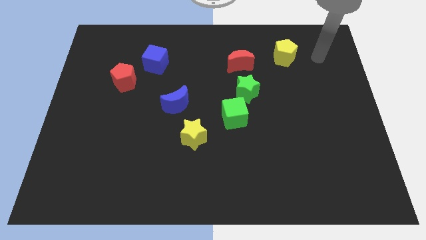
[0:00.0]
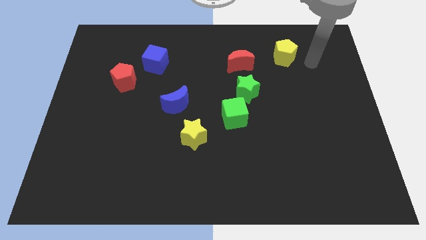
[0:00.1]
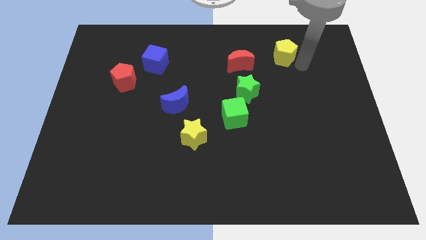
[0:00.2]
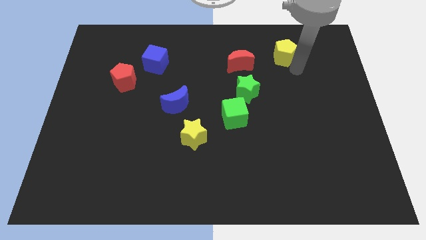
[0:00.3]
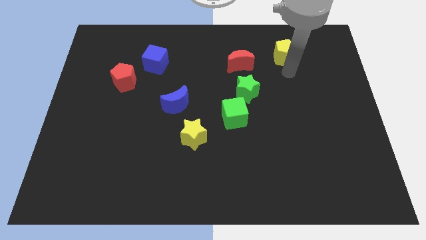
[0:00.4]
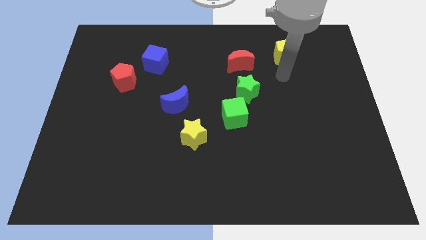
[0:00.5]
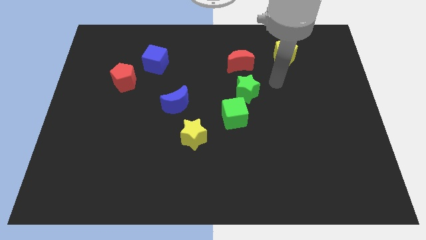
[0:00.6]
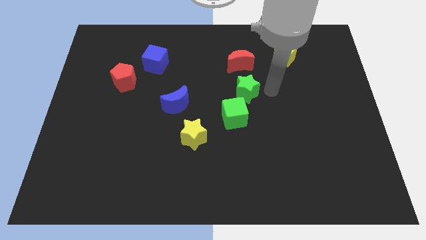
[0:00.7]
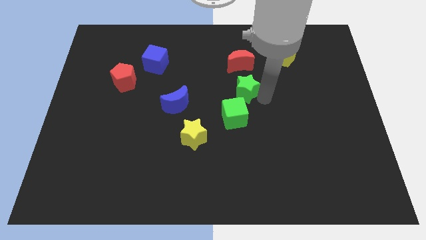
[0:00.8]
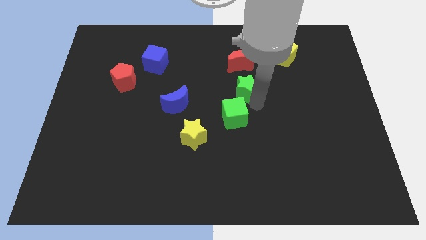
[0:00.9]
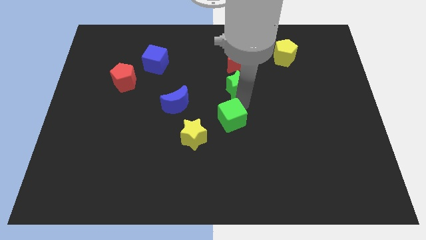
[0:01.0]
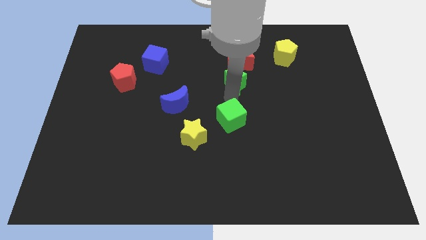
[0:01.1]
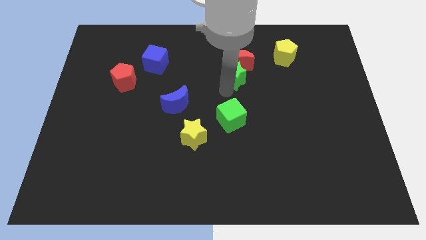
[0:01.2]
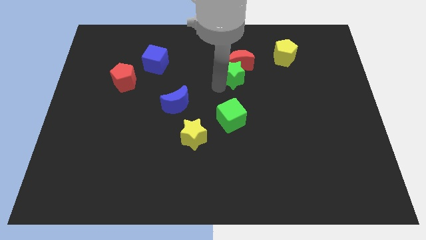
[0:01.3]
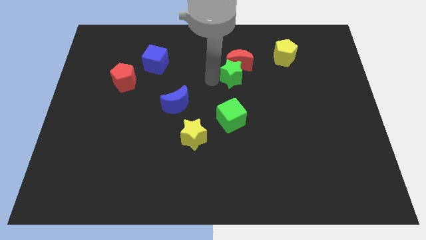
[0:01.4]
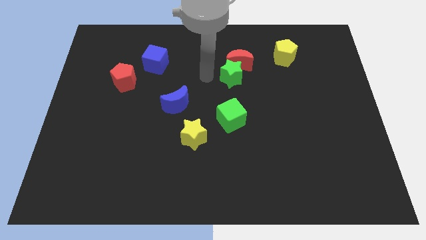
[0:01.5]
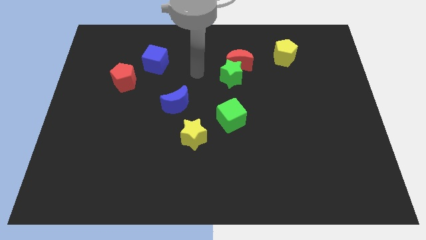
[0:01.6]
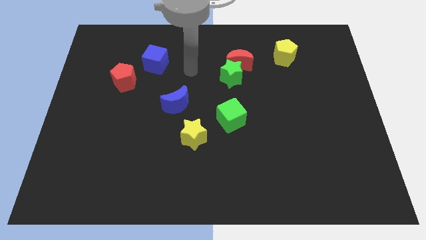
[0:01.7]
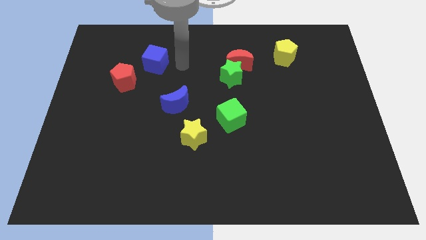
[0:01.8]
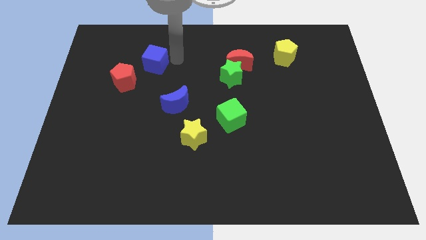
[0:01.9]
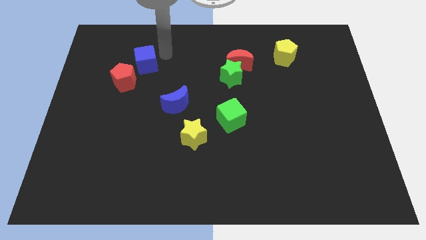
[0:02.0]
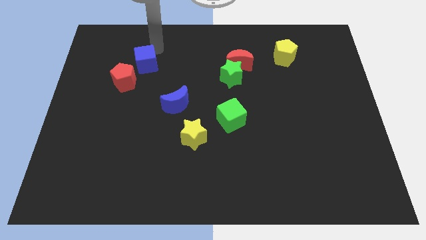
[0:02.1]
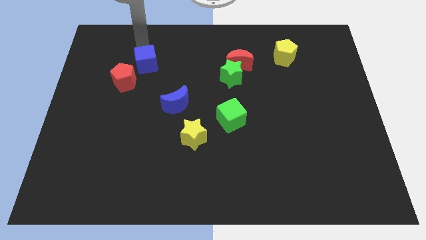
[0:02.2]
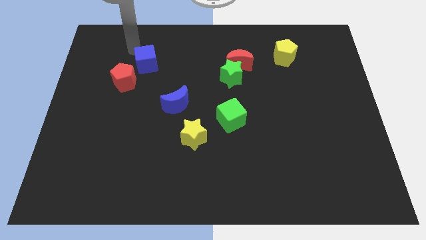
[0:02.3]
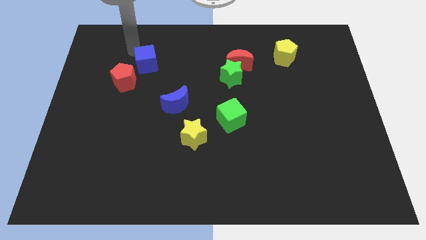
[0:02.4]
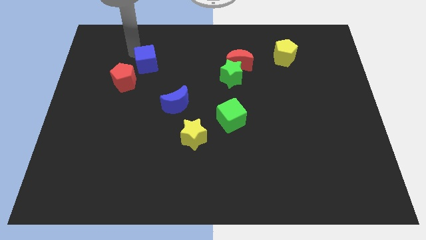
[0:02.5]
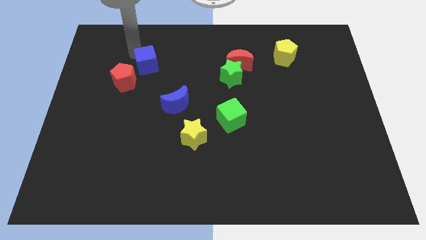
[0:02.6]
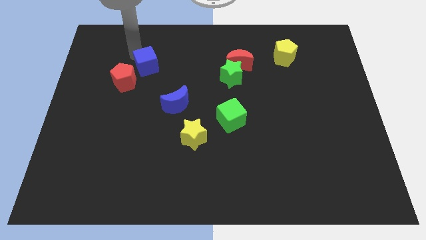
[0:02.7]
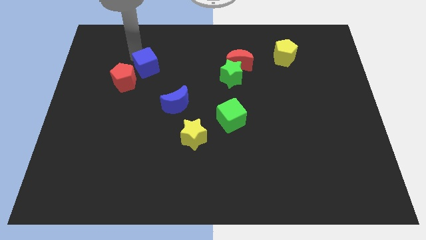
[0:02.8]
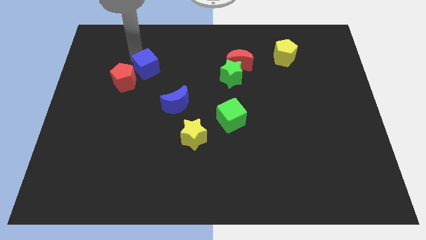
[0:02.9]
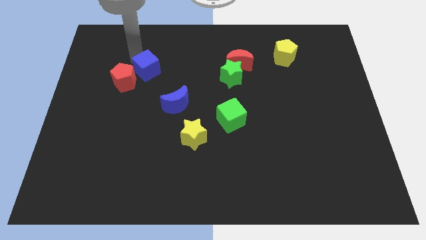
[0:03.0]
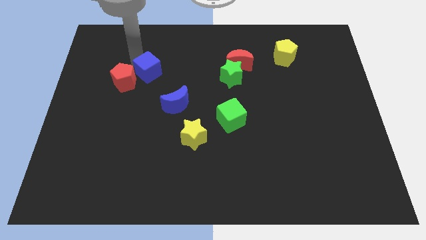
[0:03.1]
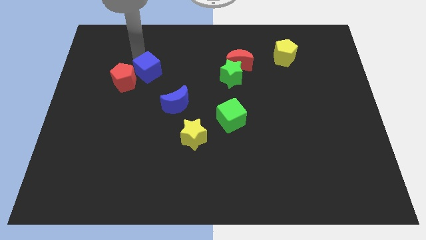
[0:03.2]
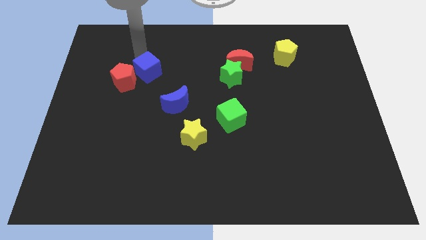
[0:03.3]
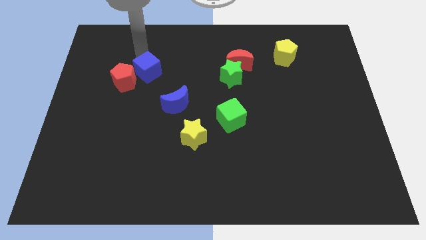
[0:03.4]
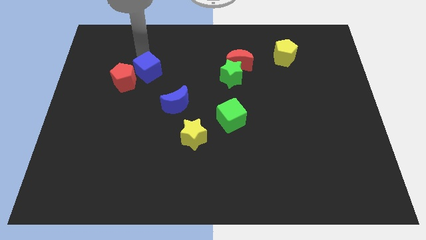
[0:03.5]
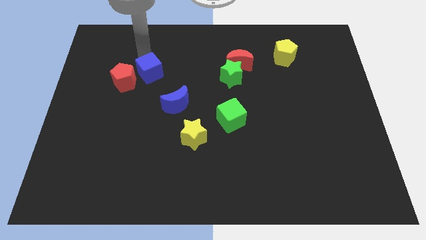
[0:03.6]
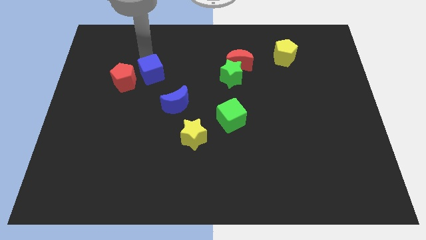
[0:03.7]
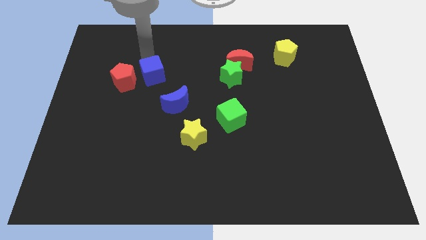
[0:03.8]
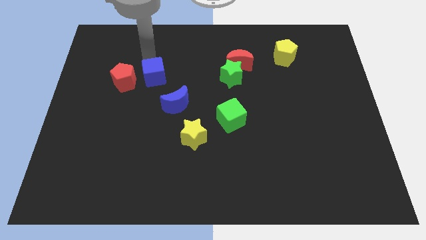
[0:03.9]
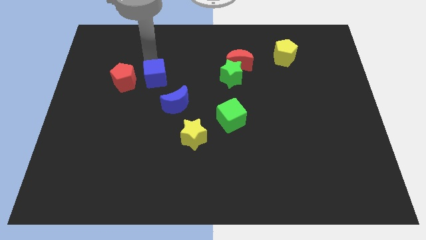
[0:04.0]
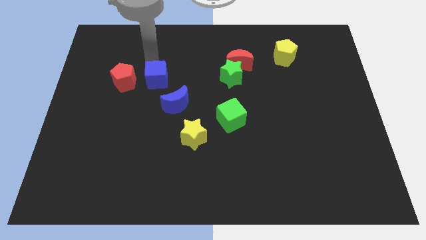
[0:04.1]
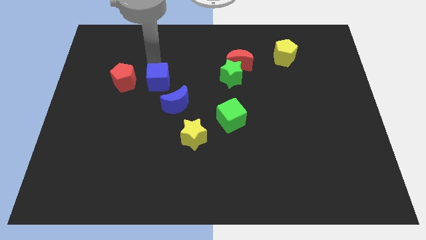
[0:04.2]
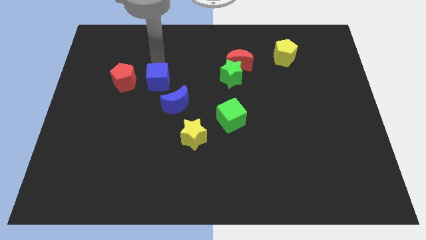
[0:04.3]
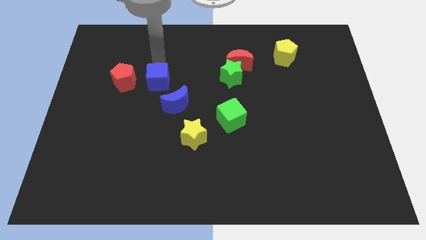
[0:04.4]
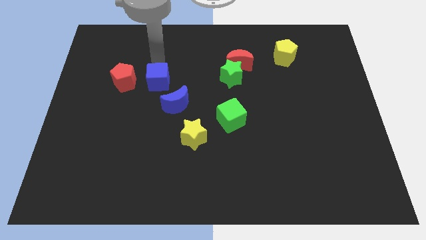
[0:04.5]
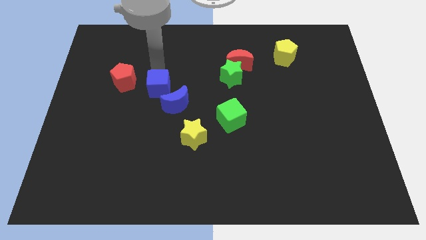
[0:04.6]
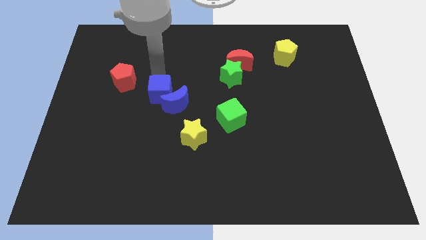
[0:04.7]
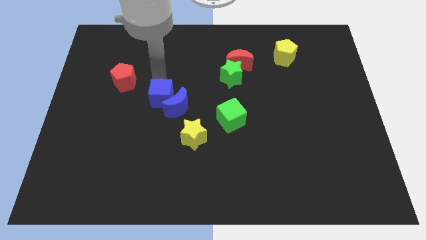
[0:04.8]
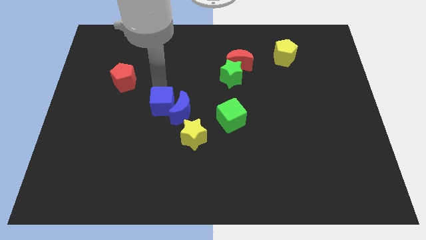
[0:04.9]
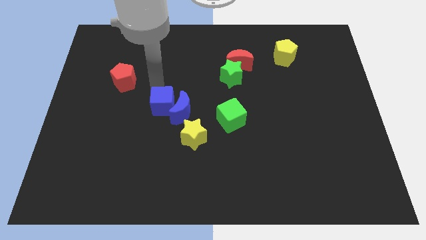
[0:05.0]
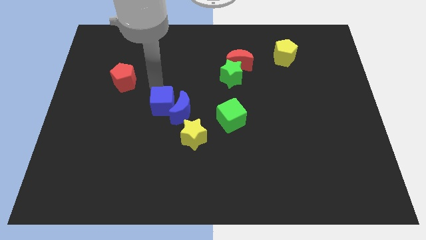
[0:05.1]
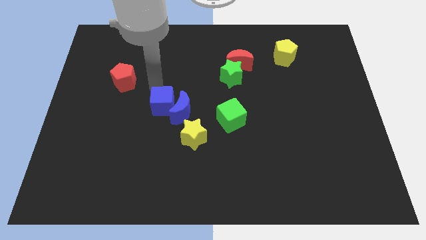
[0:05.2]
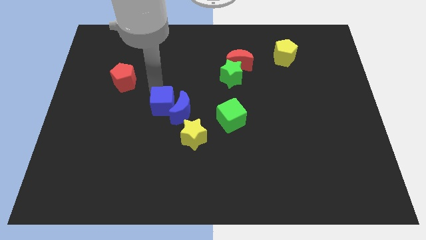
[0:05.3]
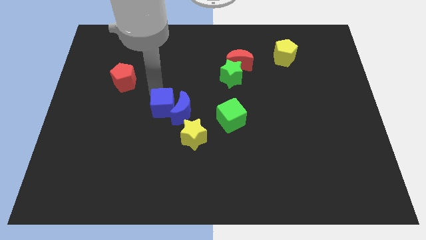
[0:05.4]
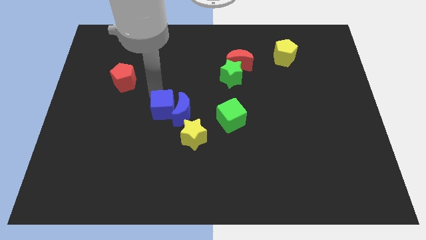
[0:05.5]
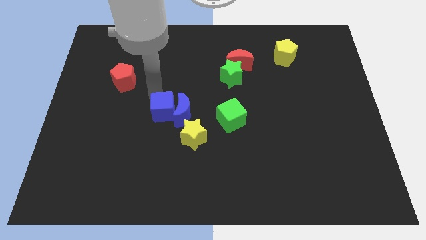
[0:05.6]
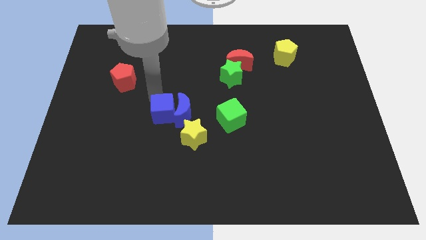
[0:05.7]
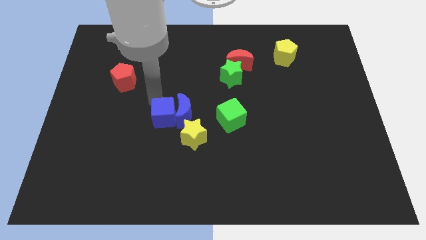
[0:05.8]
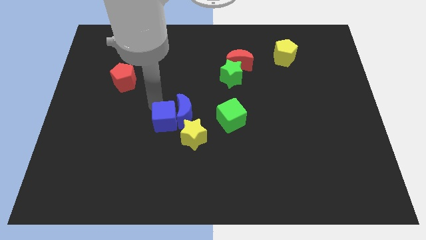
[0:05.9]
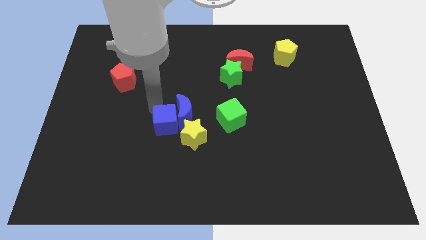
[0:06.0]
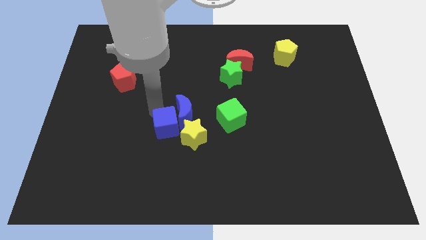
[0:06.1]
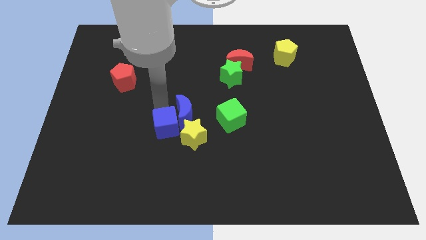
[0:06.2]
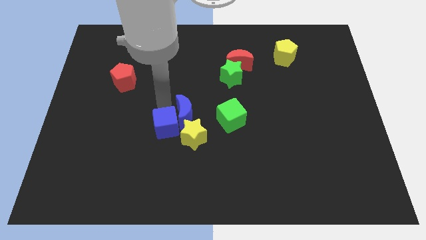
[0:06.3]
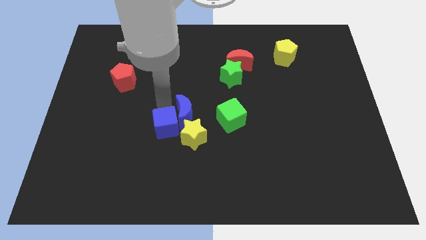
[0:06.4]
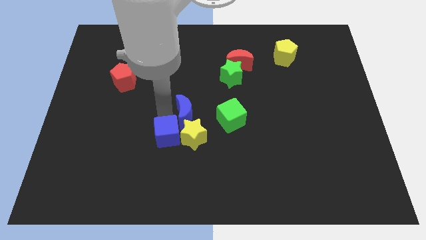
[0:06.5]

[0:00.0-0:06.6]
slide the blue cube to the bottom left side of the yellow star

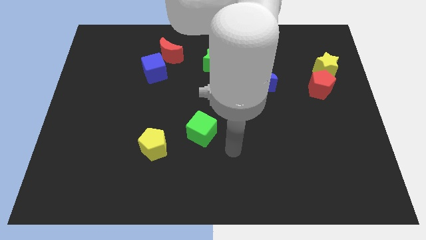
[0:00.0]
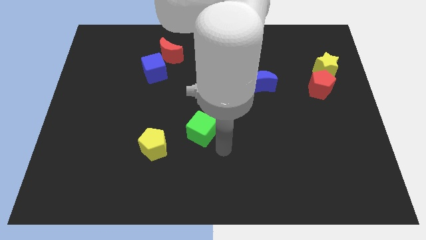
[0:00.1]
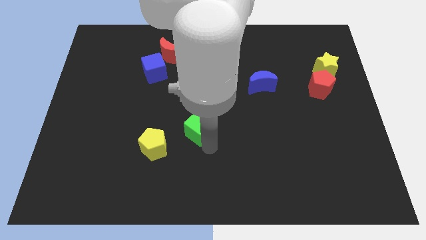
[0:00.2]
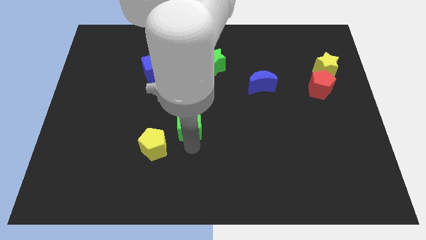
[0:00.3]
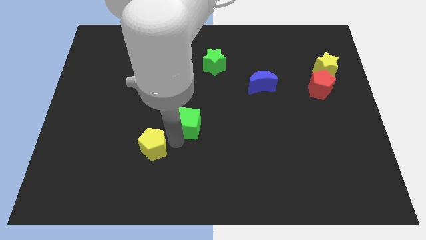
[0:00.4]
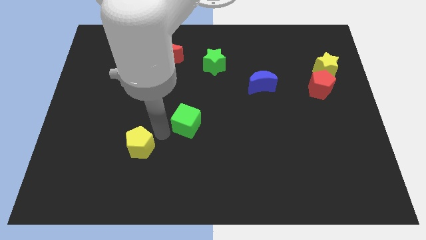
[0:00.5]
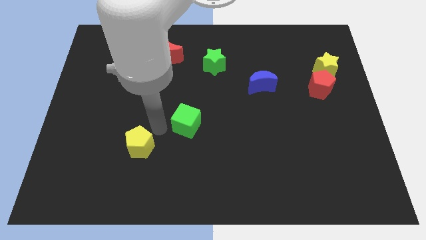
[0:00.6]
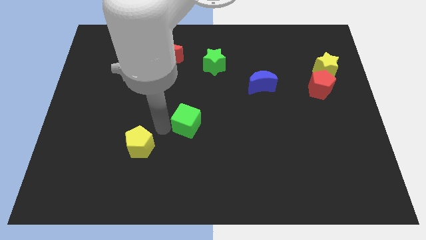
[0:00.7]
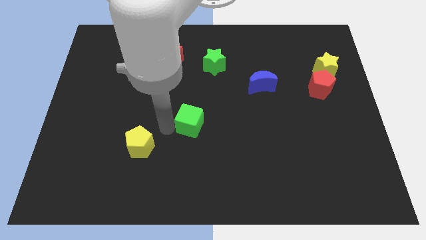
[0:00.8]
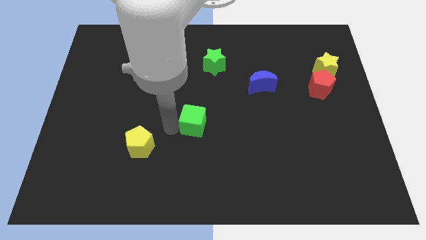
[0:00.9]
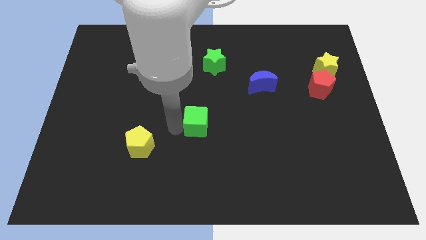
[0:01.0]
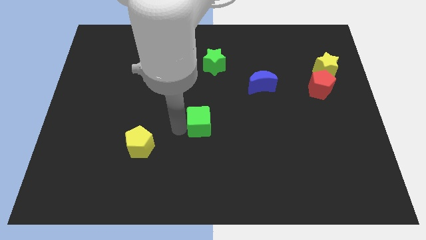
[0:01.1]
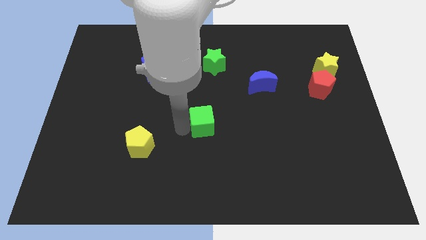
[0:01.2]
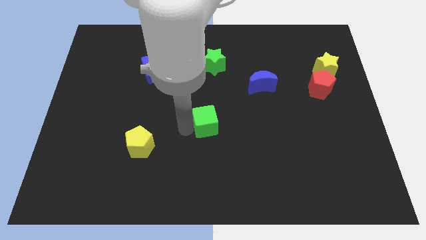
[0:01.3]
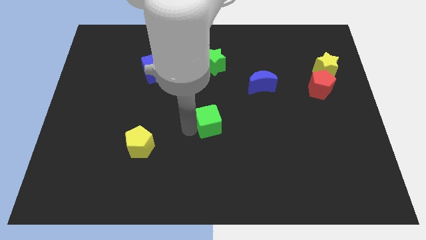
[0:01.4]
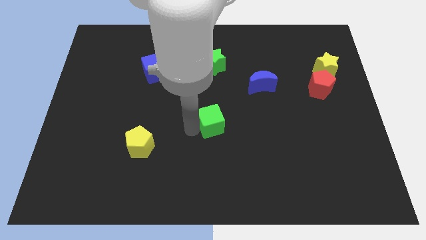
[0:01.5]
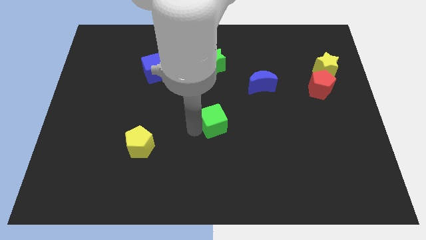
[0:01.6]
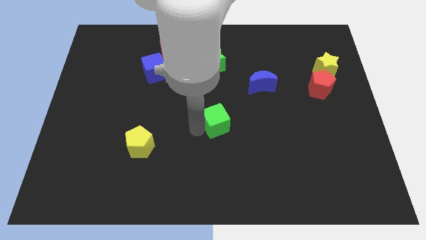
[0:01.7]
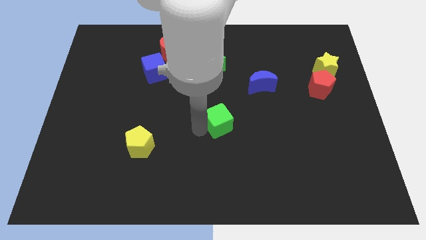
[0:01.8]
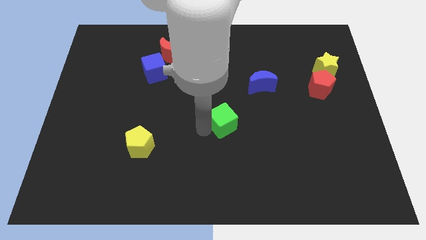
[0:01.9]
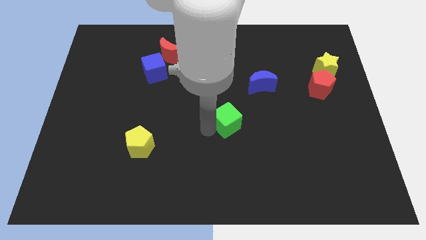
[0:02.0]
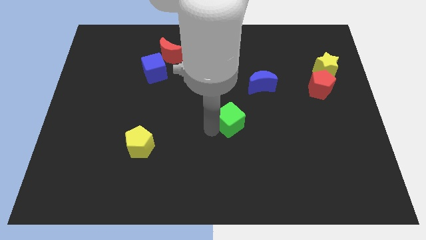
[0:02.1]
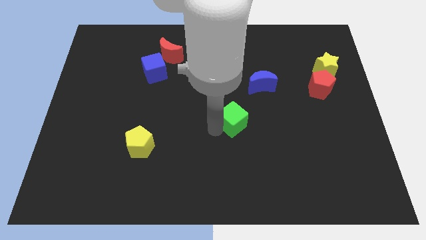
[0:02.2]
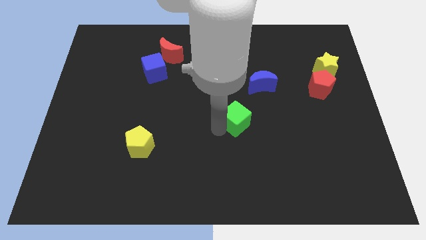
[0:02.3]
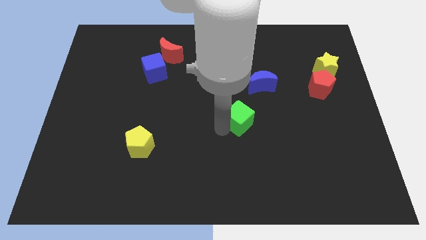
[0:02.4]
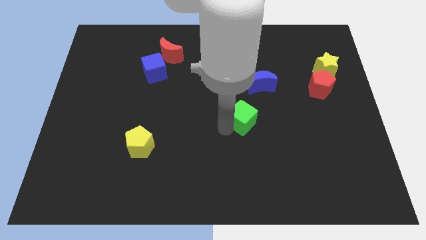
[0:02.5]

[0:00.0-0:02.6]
move the green cube to the bottom left side of the blue moon
